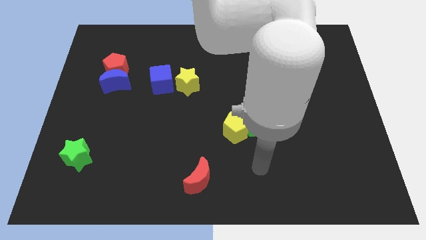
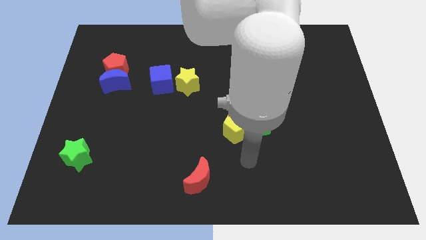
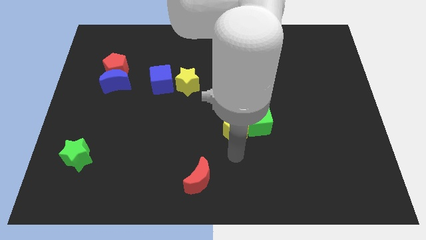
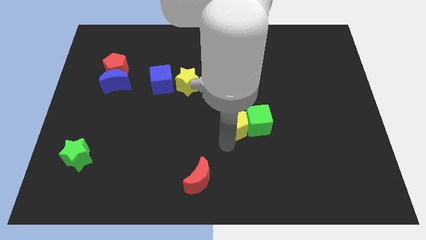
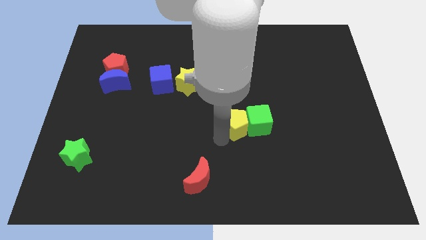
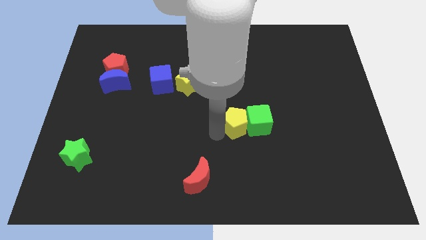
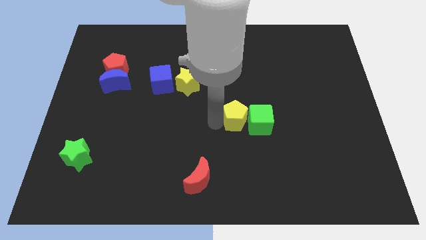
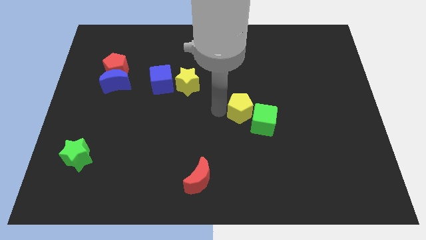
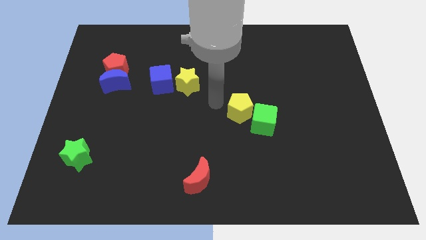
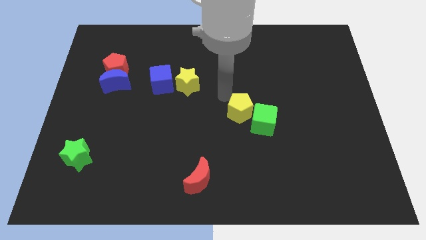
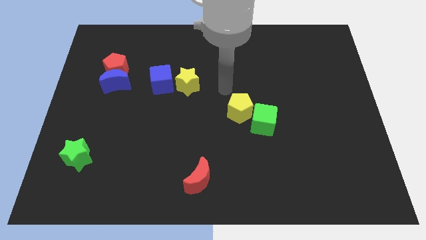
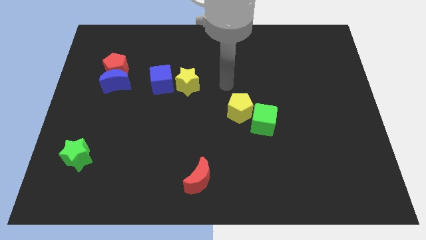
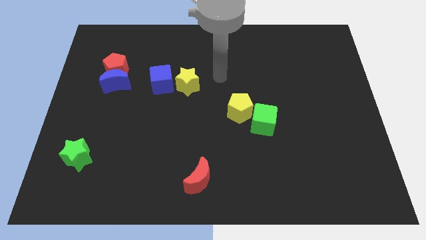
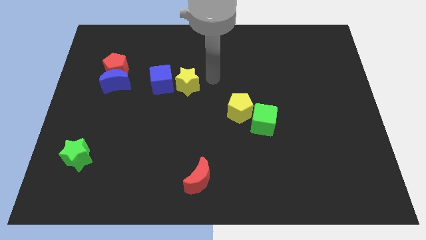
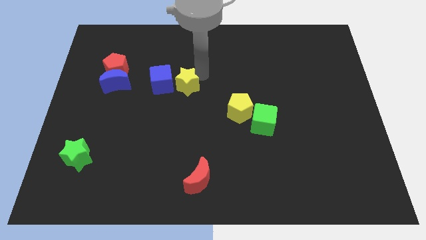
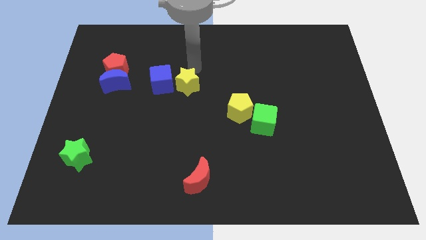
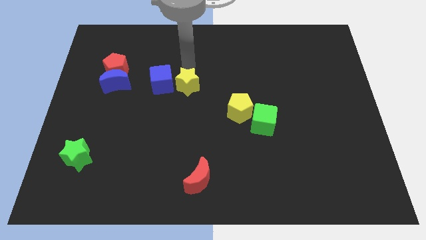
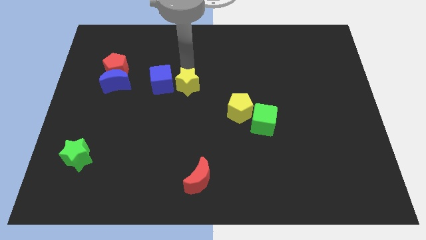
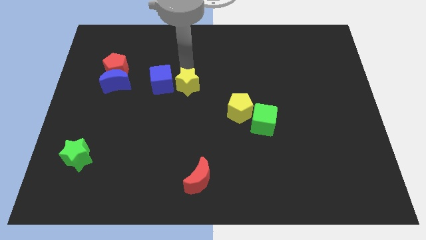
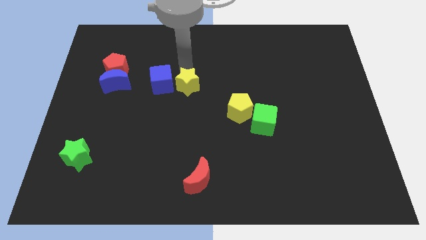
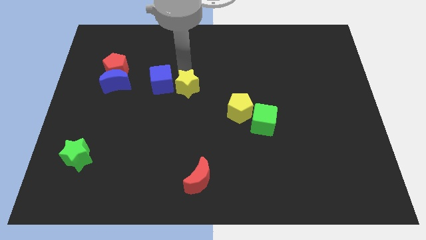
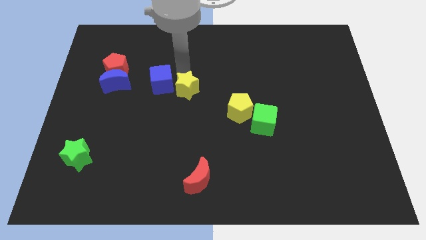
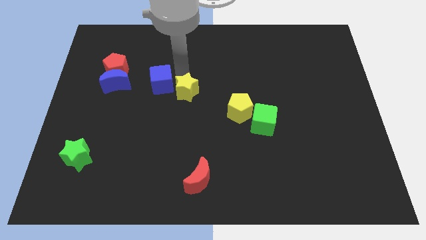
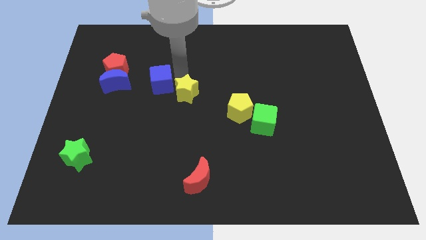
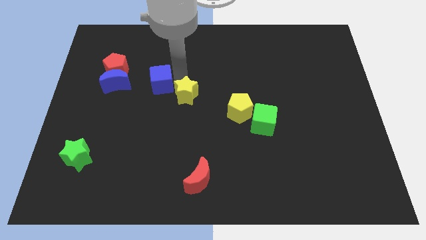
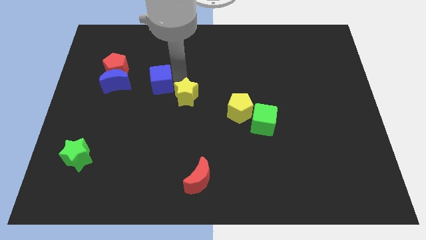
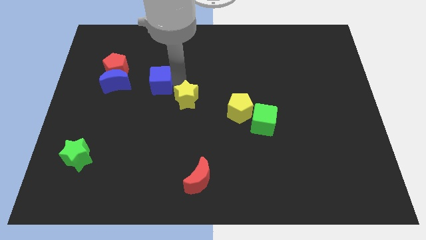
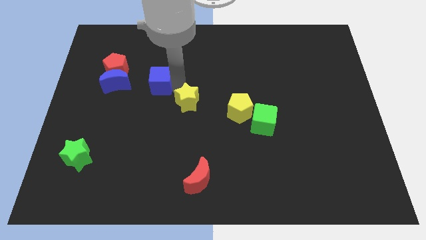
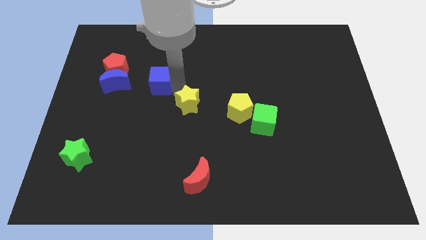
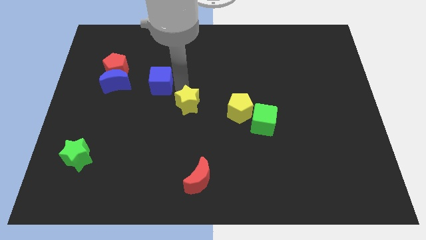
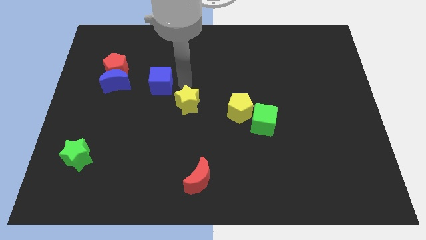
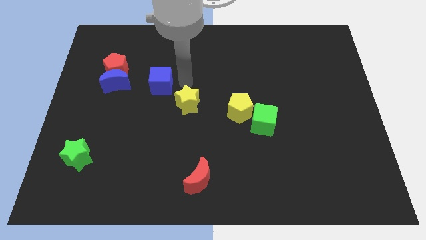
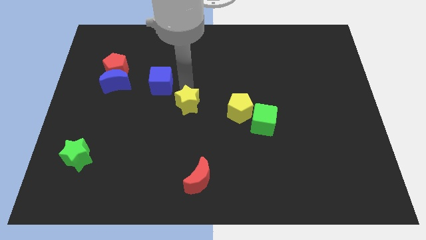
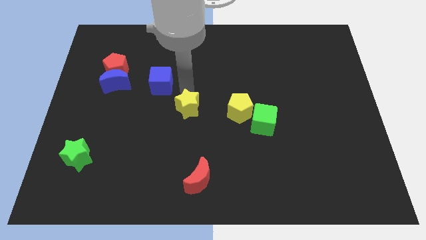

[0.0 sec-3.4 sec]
slightly push the yellow star down

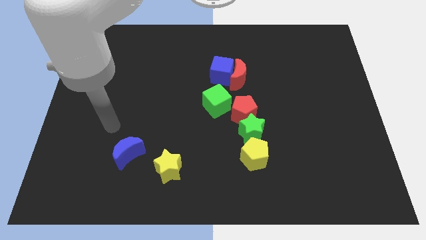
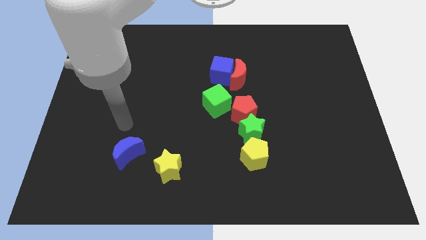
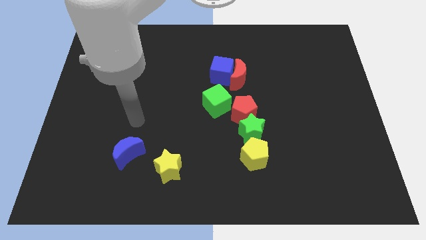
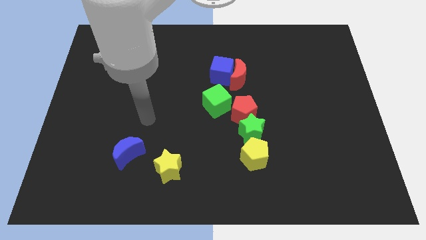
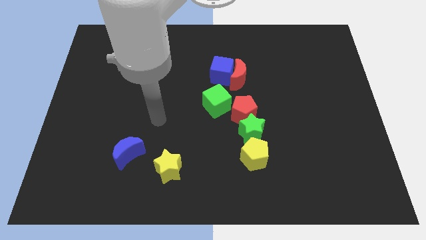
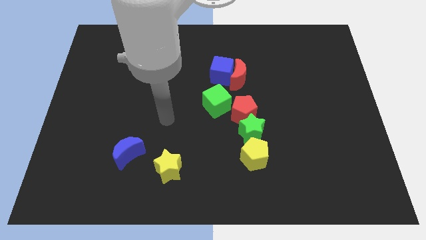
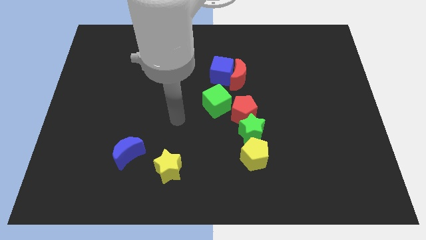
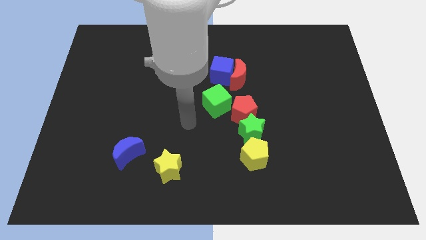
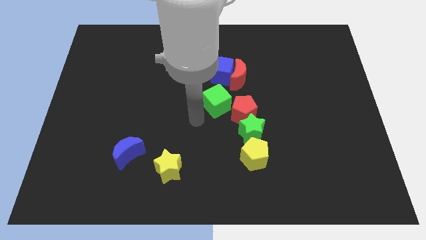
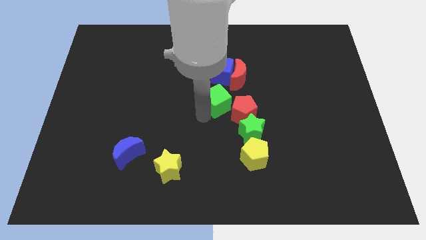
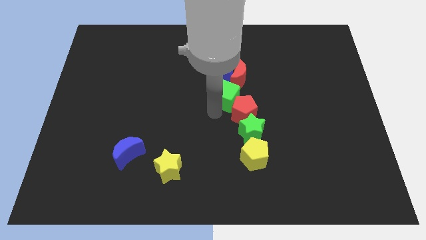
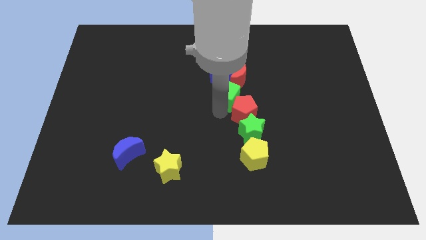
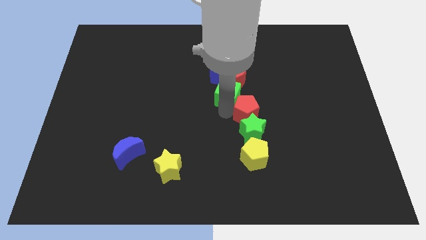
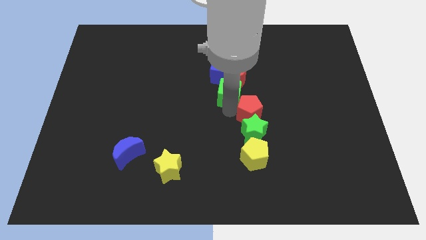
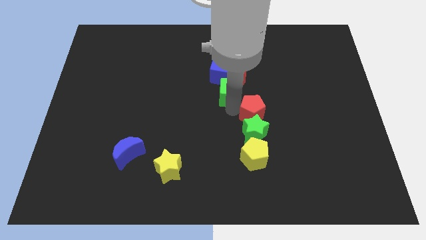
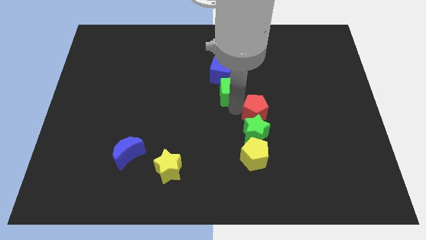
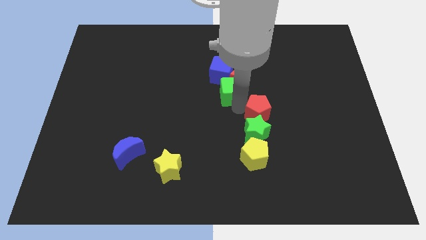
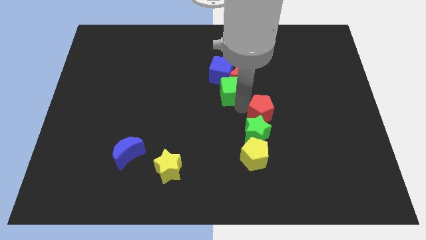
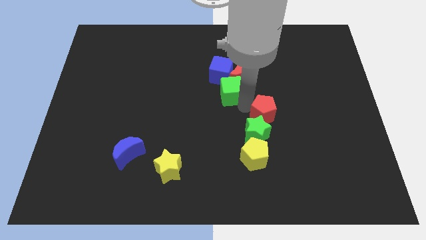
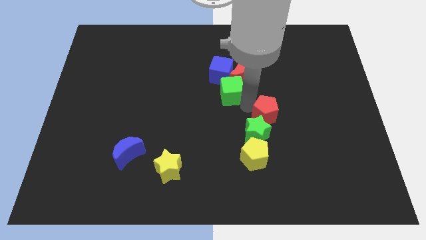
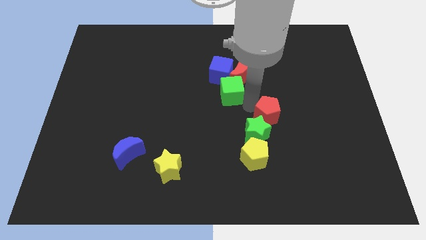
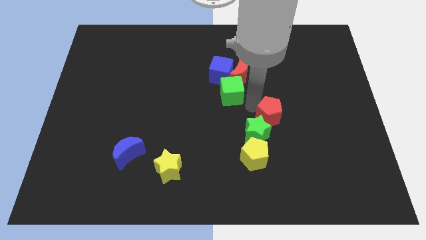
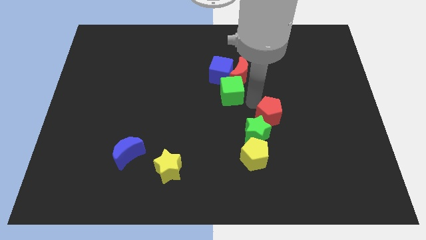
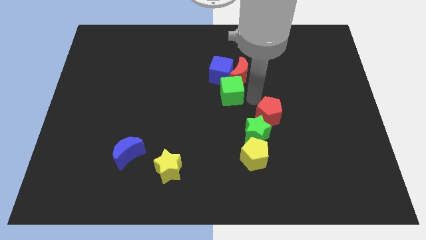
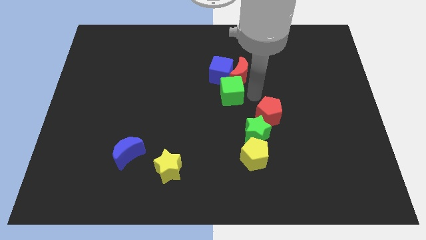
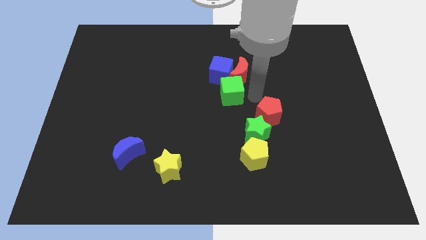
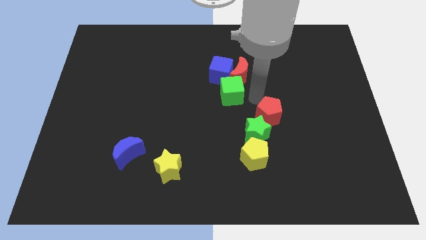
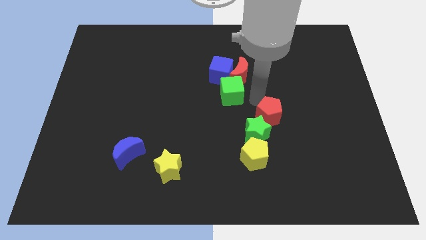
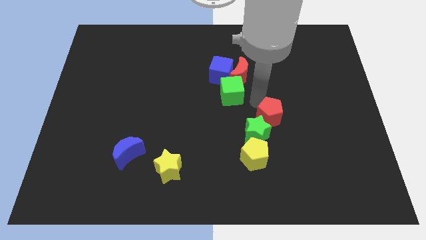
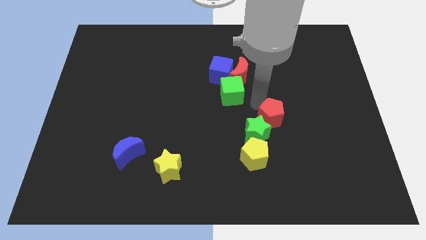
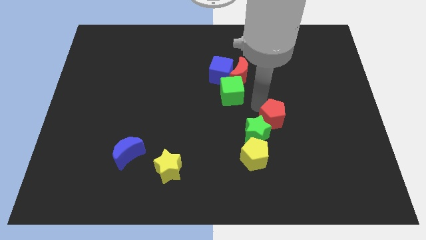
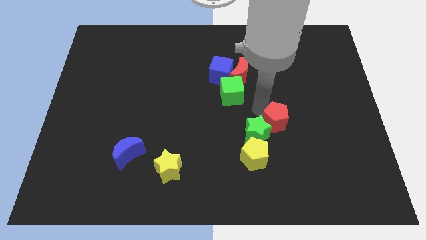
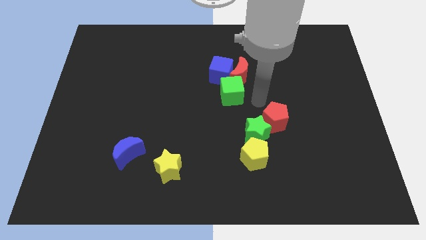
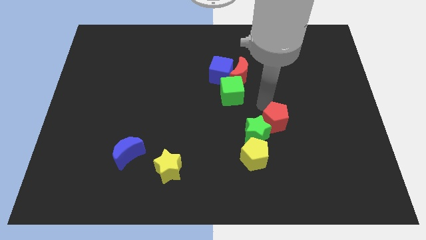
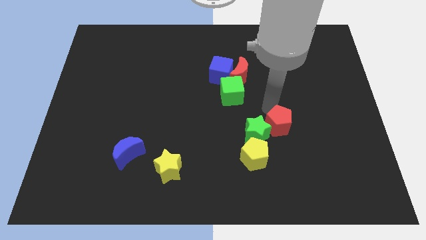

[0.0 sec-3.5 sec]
slightly push the red pentagon downwards and right

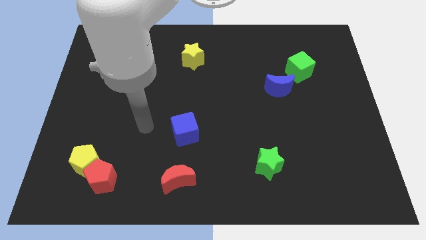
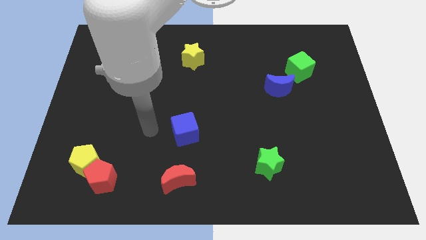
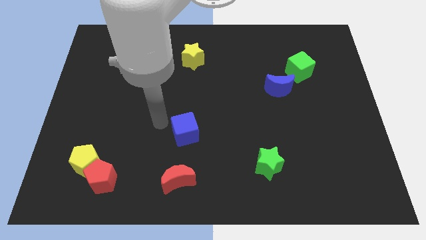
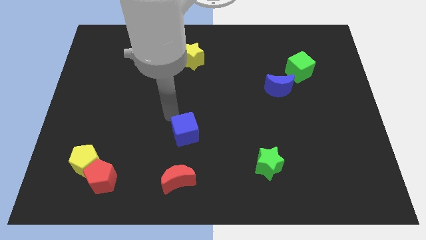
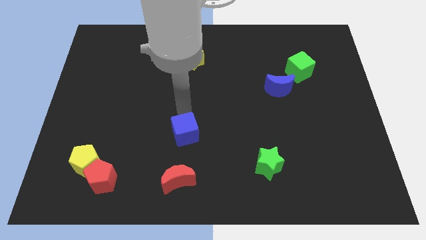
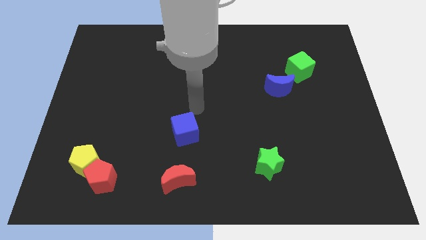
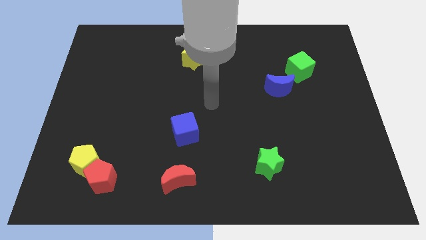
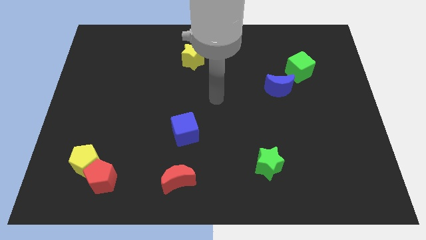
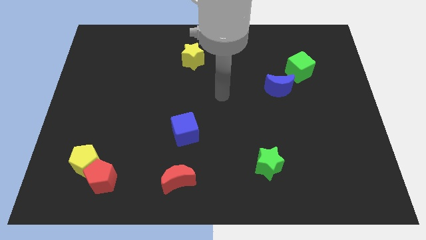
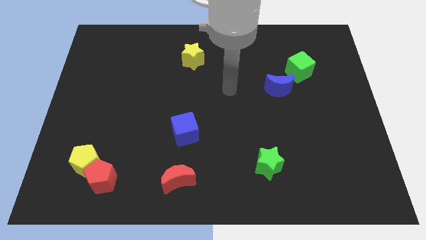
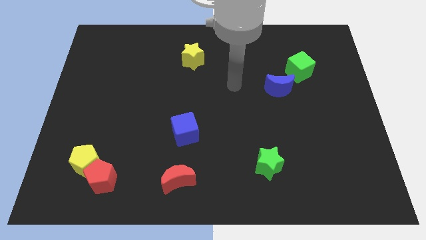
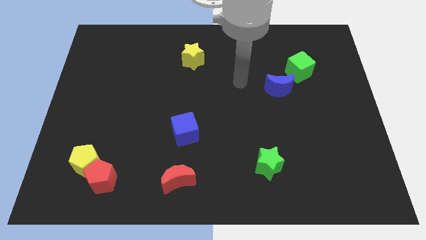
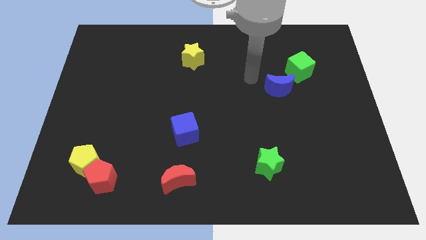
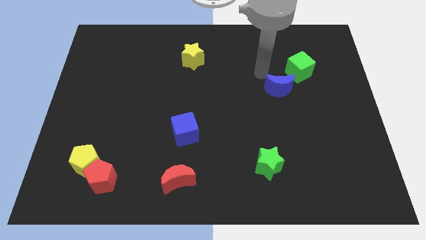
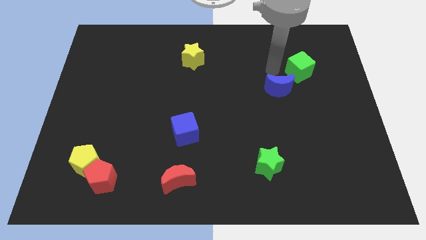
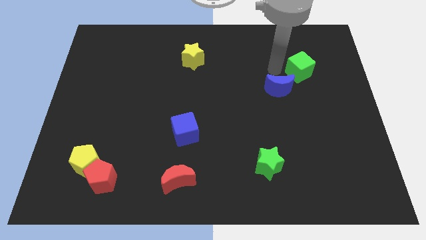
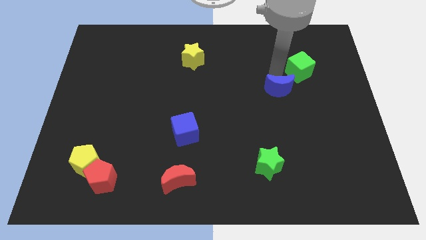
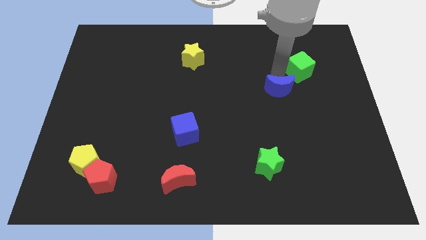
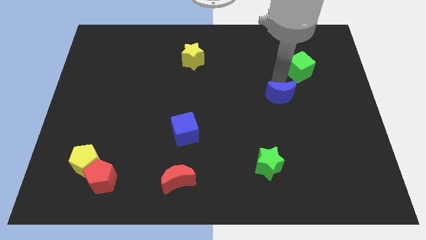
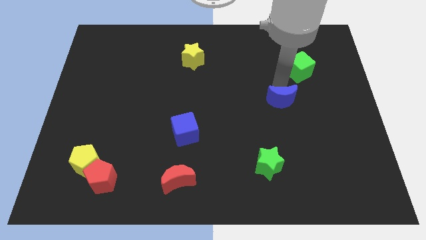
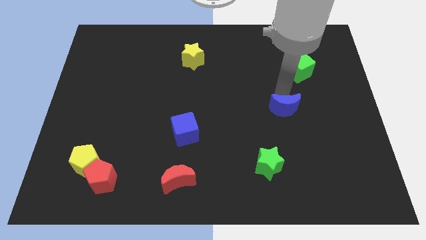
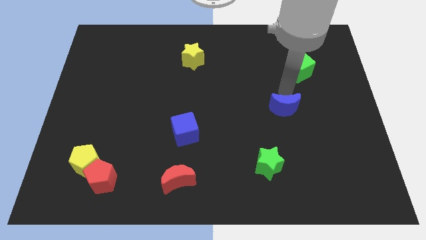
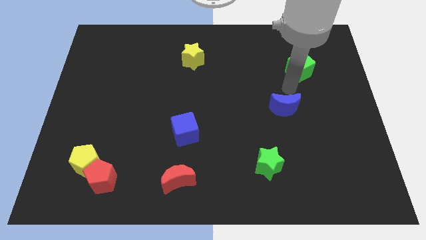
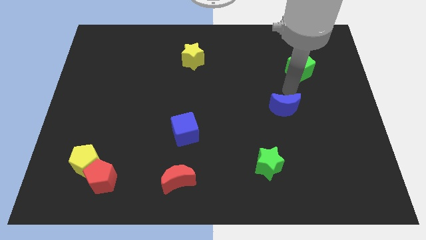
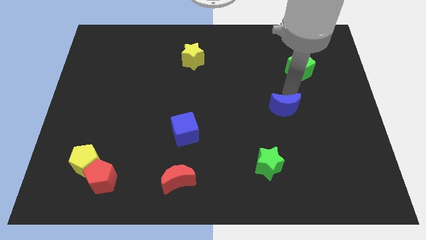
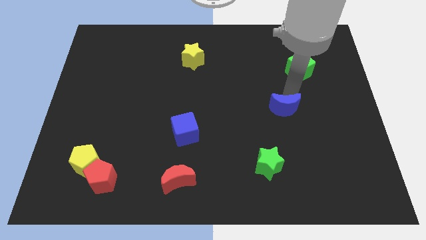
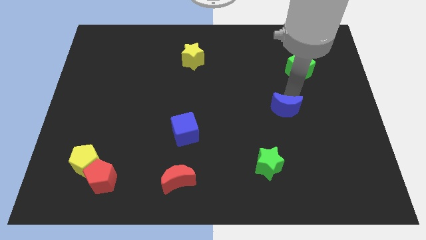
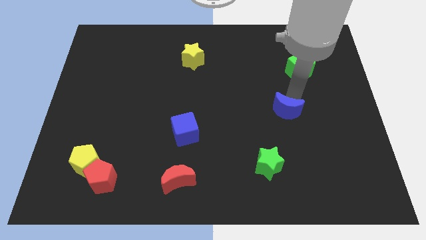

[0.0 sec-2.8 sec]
move the blue moon somewhat down
